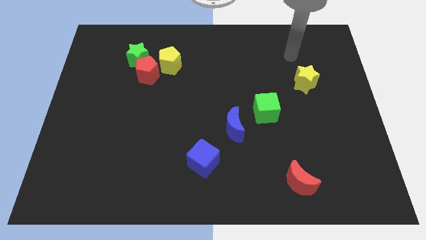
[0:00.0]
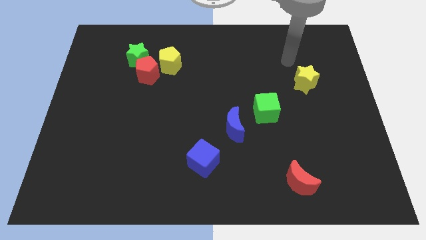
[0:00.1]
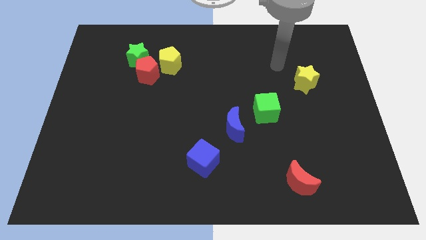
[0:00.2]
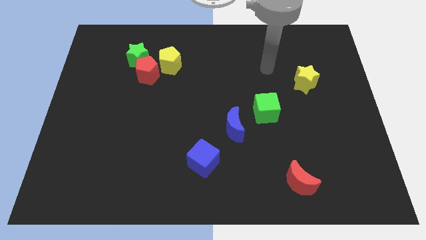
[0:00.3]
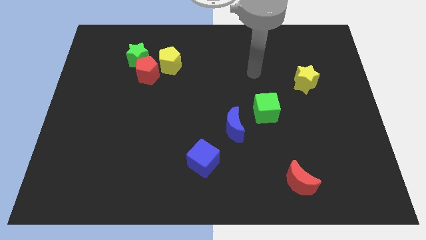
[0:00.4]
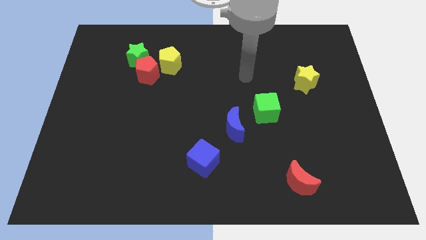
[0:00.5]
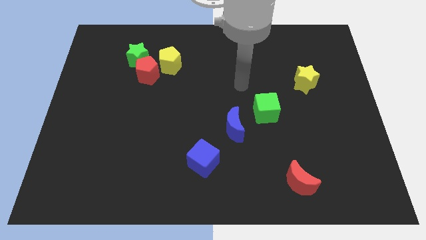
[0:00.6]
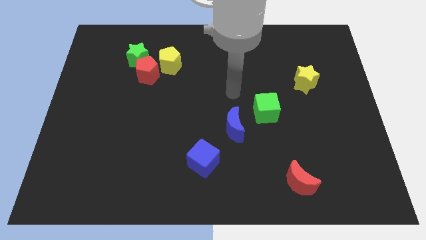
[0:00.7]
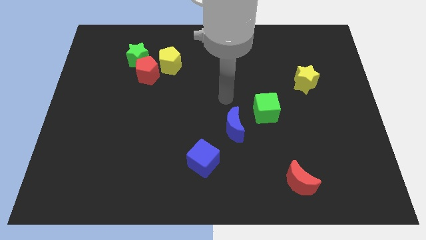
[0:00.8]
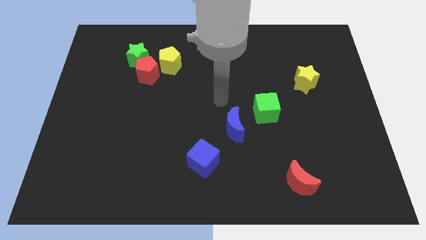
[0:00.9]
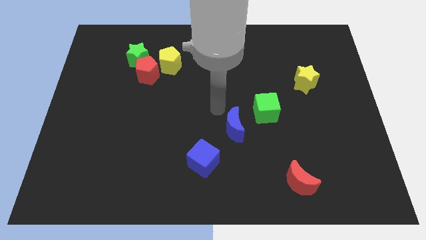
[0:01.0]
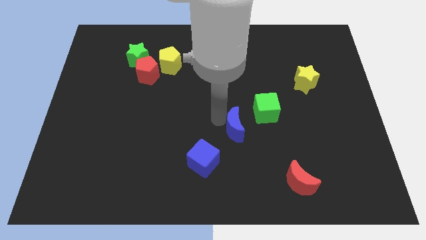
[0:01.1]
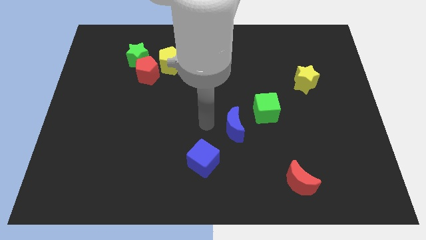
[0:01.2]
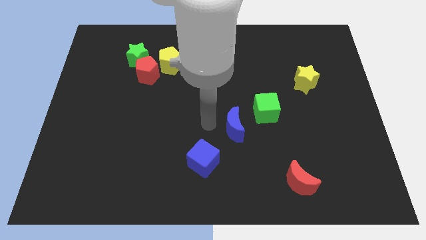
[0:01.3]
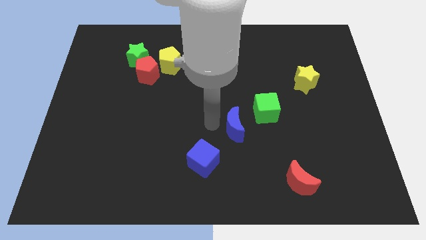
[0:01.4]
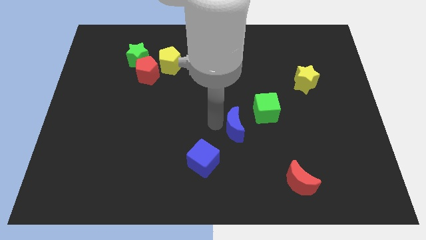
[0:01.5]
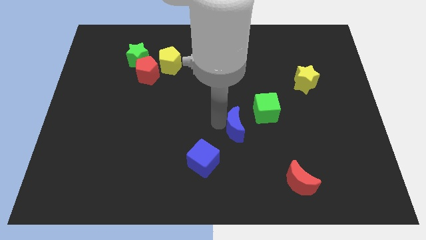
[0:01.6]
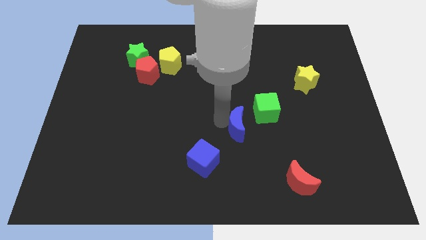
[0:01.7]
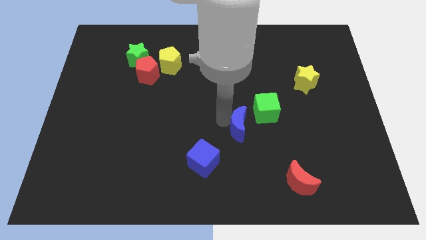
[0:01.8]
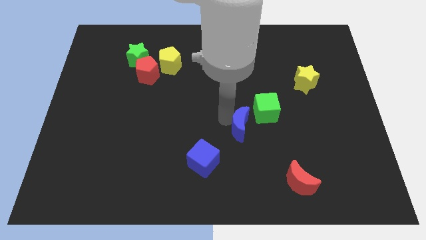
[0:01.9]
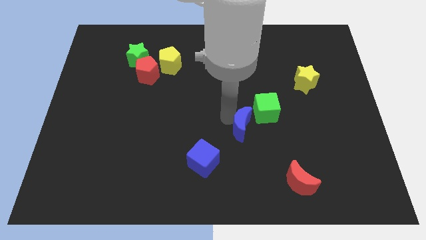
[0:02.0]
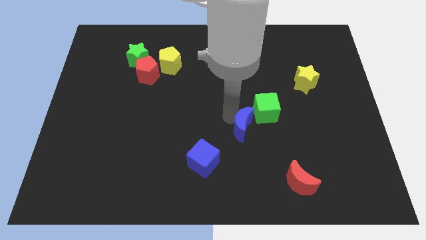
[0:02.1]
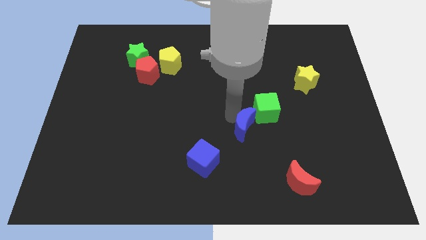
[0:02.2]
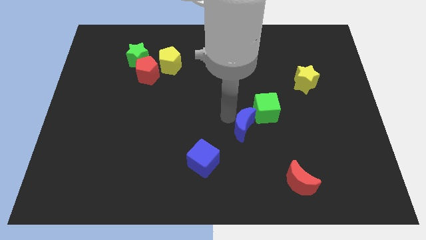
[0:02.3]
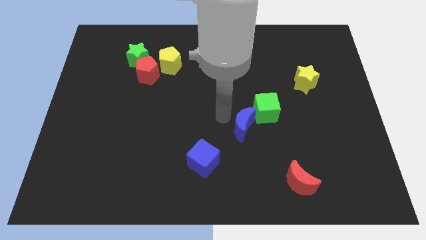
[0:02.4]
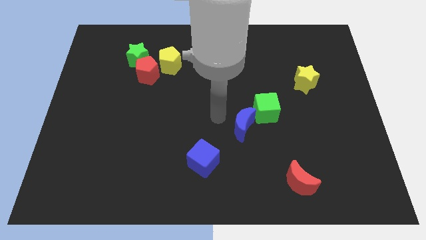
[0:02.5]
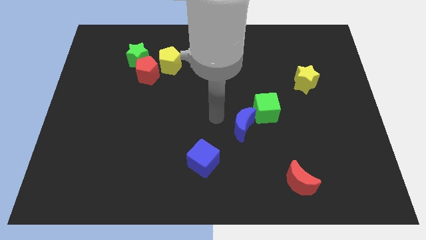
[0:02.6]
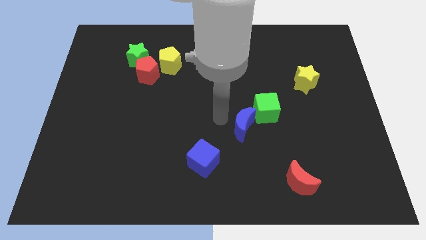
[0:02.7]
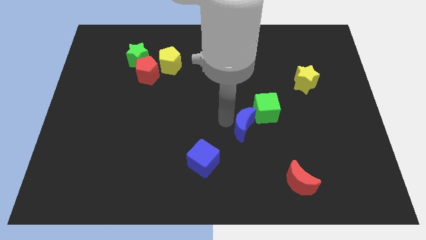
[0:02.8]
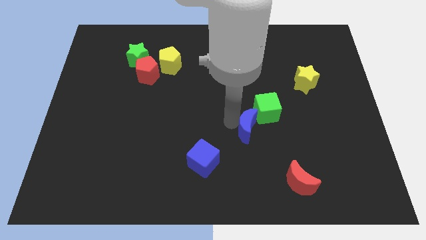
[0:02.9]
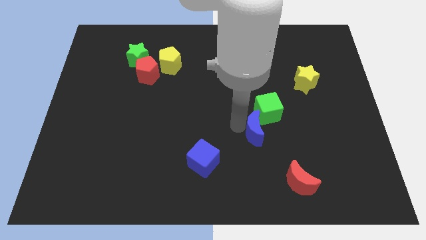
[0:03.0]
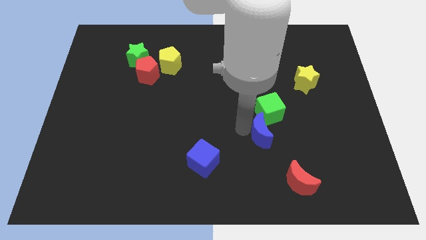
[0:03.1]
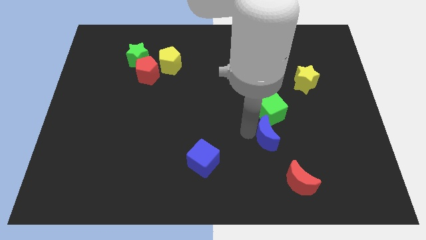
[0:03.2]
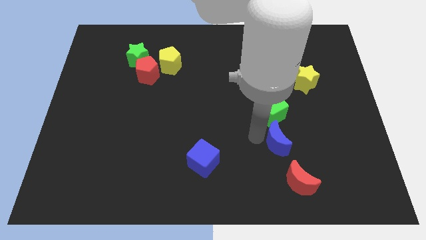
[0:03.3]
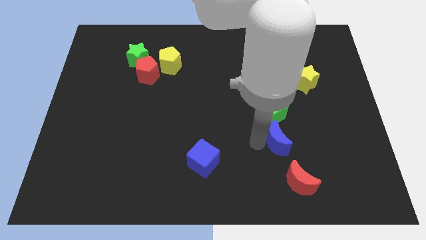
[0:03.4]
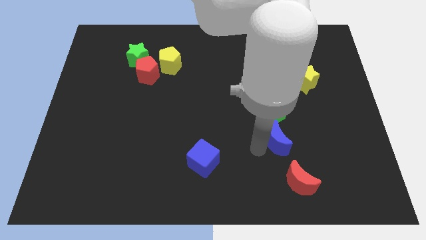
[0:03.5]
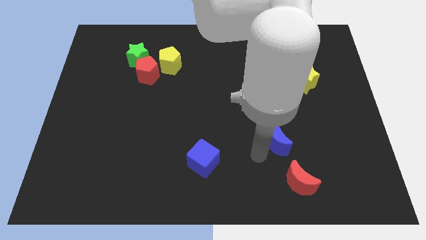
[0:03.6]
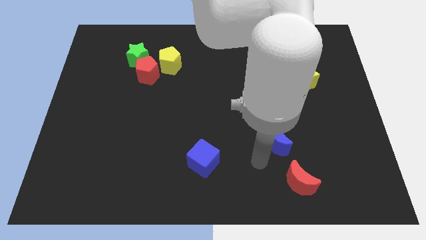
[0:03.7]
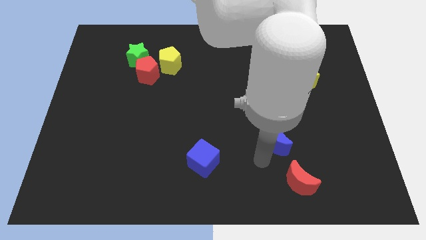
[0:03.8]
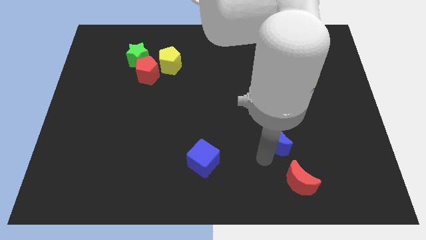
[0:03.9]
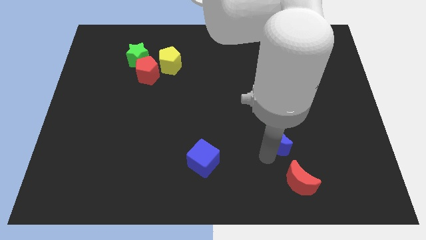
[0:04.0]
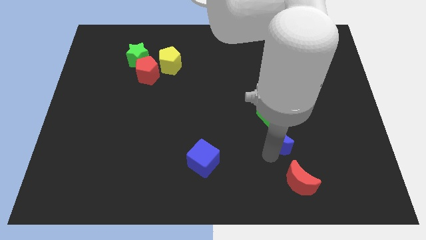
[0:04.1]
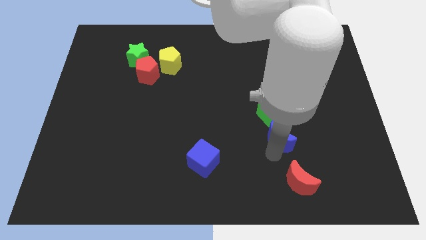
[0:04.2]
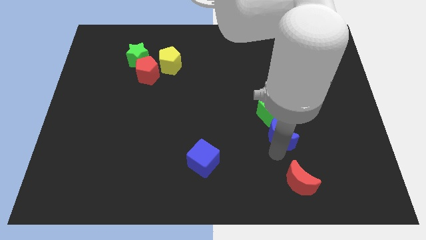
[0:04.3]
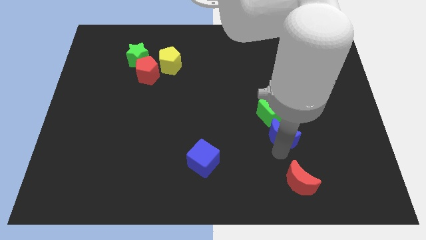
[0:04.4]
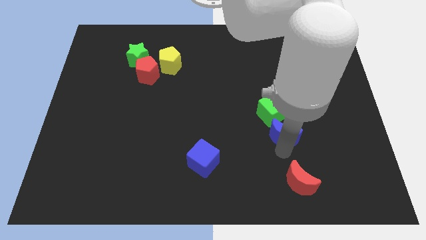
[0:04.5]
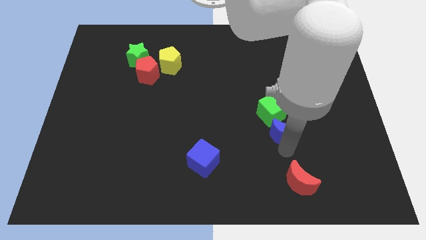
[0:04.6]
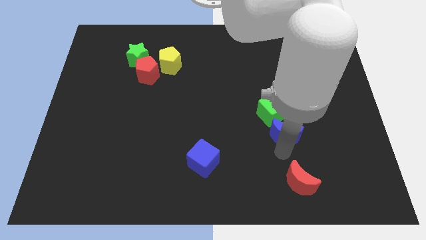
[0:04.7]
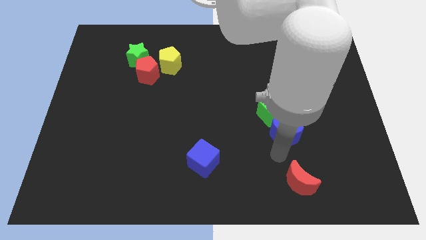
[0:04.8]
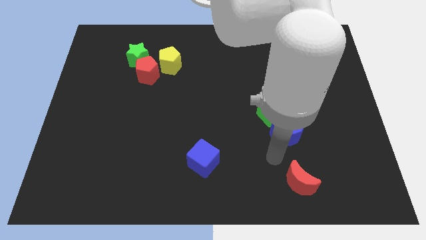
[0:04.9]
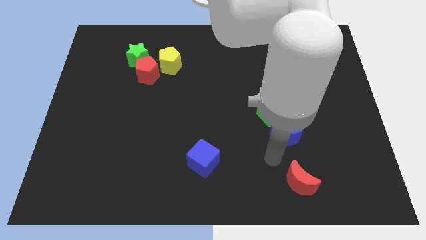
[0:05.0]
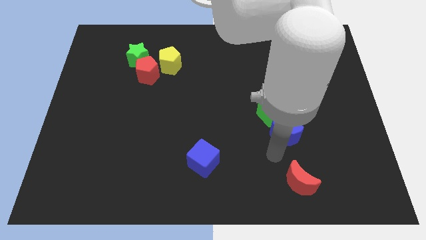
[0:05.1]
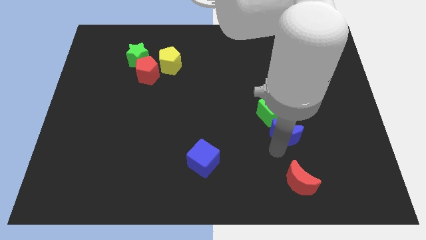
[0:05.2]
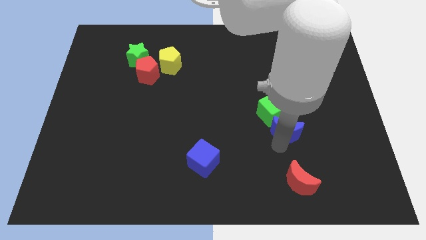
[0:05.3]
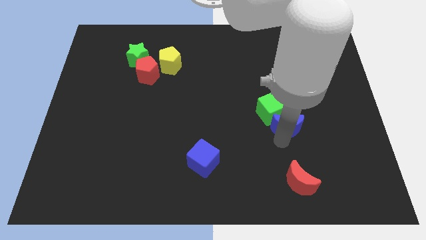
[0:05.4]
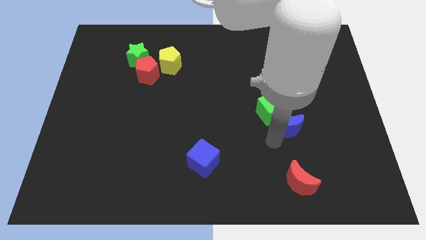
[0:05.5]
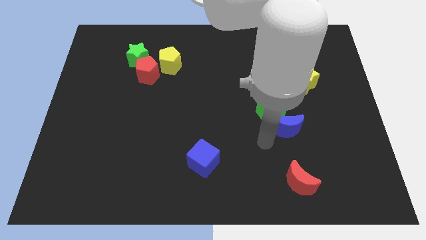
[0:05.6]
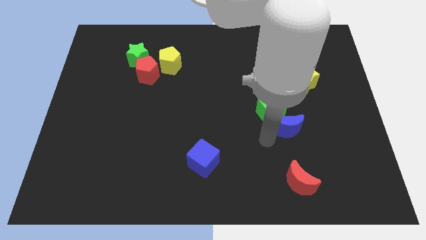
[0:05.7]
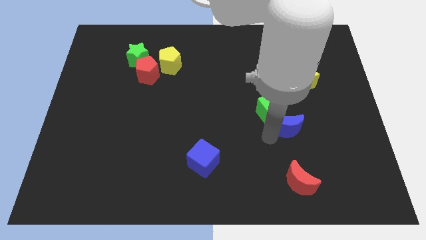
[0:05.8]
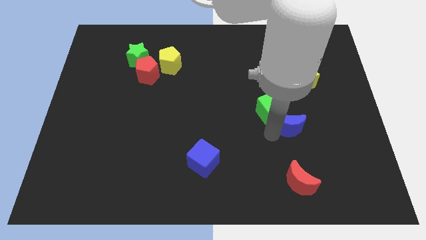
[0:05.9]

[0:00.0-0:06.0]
push the blue moon right of the green cube

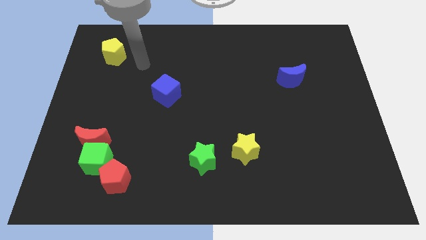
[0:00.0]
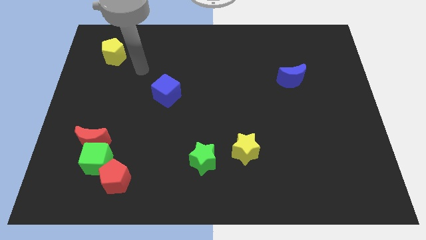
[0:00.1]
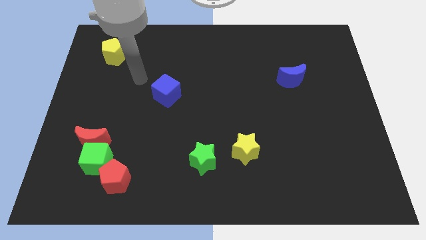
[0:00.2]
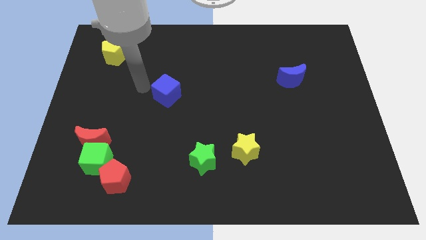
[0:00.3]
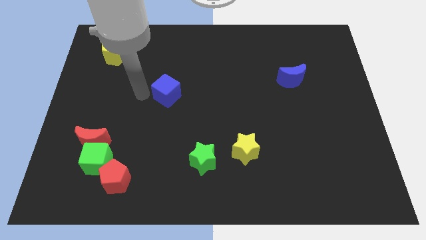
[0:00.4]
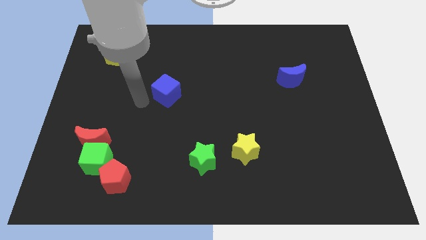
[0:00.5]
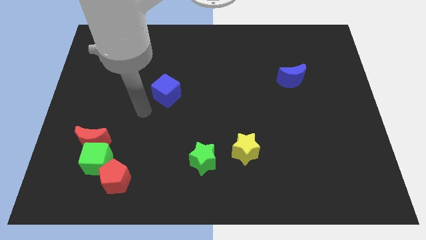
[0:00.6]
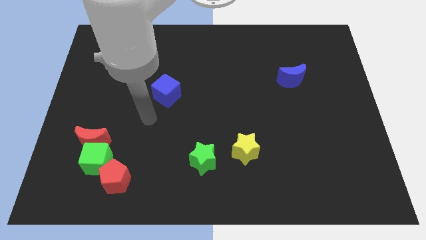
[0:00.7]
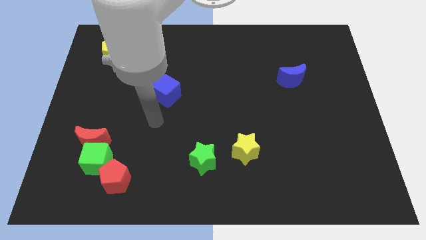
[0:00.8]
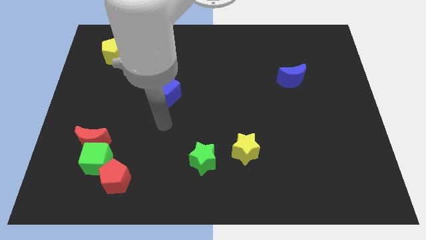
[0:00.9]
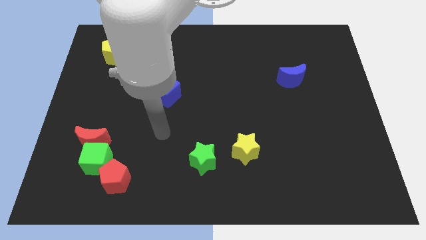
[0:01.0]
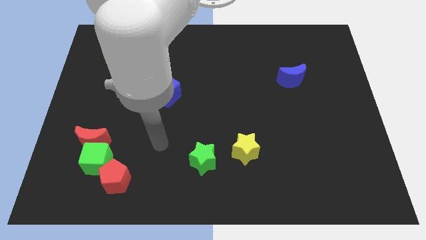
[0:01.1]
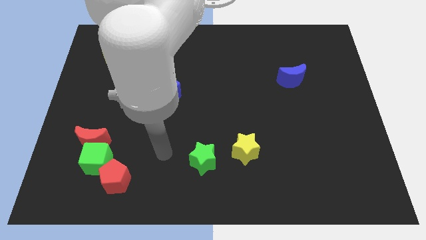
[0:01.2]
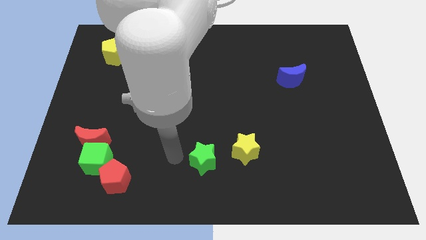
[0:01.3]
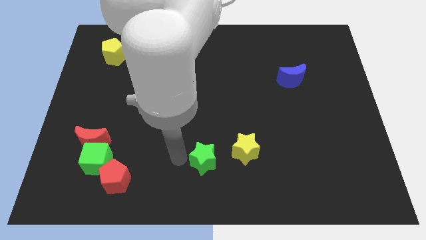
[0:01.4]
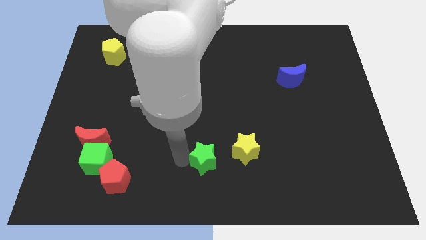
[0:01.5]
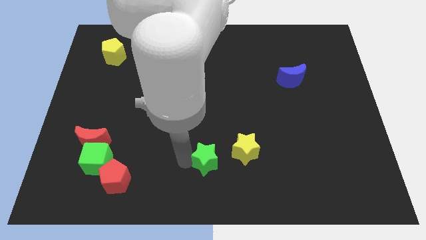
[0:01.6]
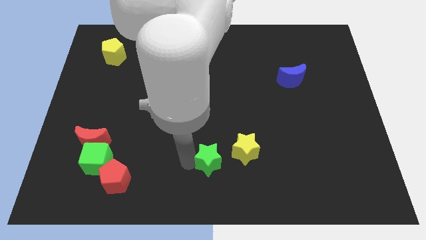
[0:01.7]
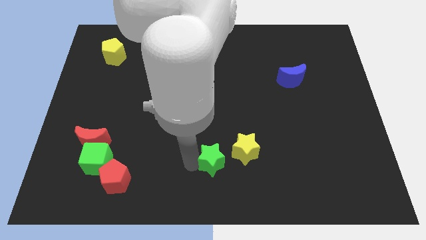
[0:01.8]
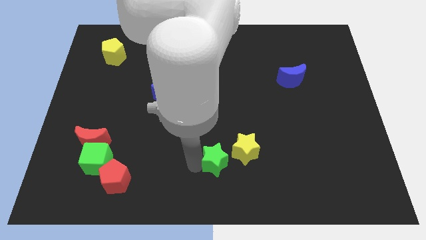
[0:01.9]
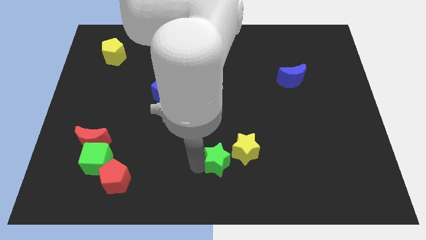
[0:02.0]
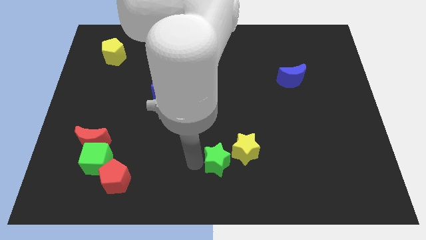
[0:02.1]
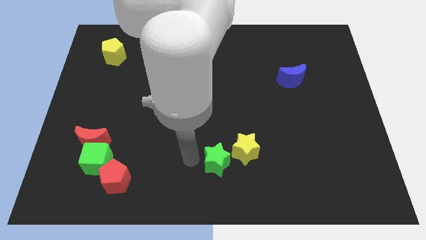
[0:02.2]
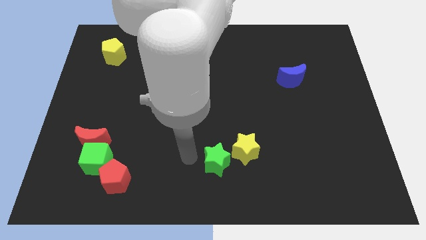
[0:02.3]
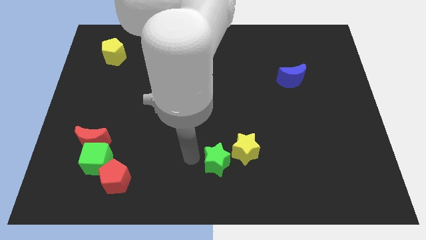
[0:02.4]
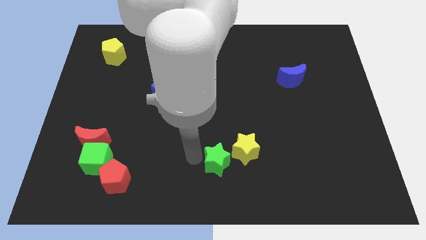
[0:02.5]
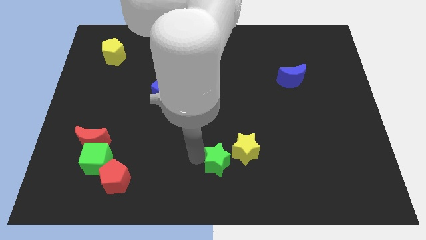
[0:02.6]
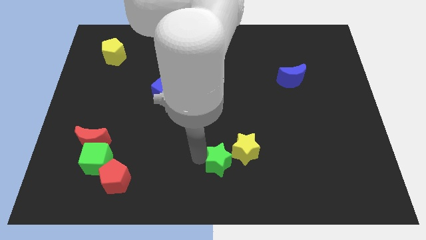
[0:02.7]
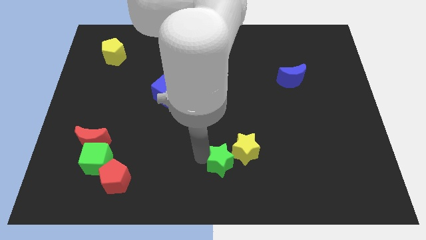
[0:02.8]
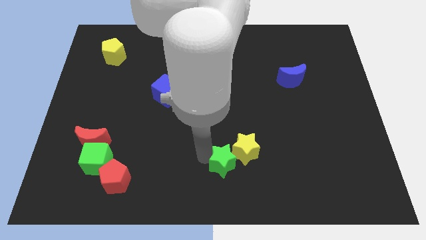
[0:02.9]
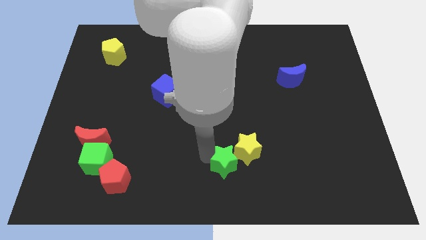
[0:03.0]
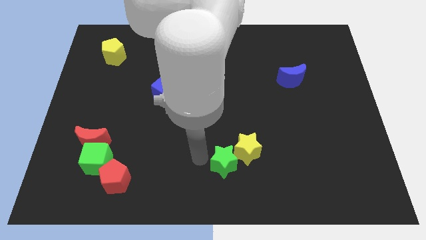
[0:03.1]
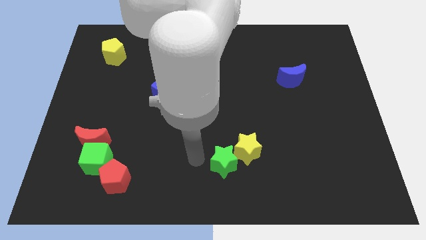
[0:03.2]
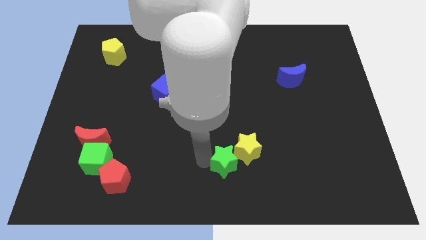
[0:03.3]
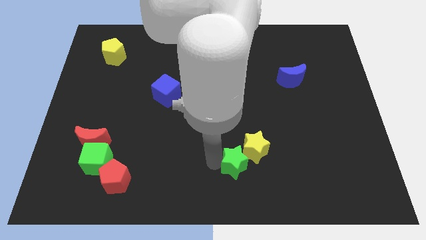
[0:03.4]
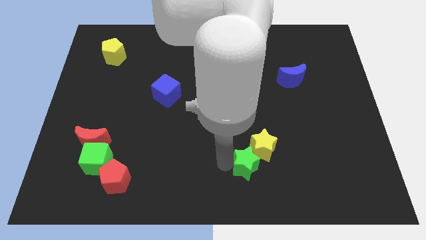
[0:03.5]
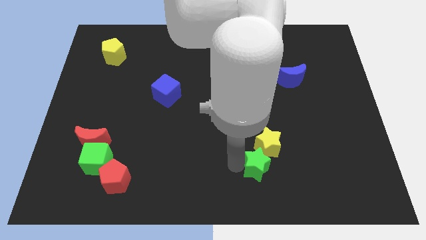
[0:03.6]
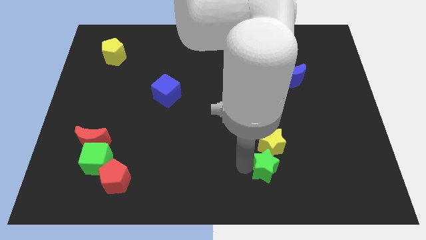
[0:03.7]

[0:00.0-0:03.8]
slide the green star to the bottom right side of the yellow star
